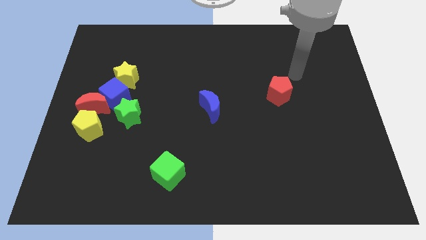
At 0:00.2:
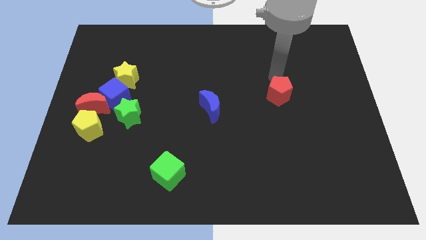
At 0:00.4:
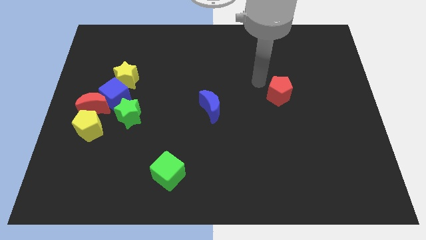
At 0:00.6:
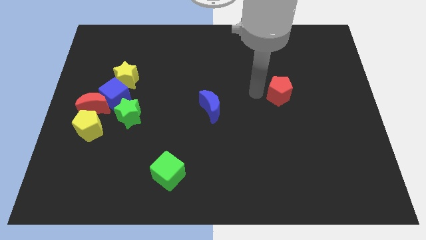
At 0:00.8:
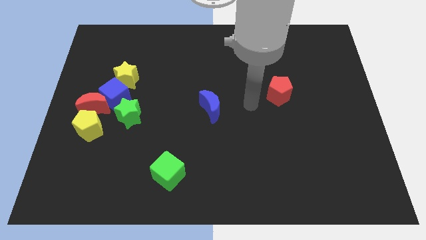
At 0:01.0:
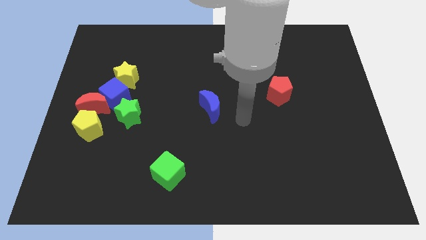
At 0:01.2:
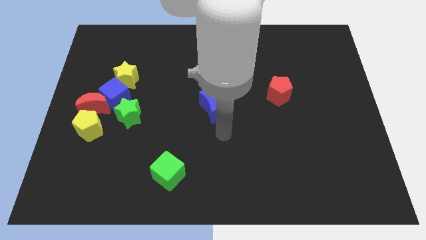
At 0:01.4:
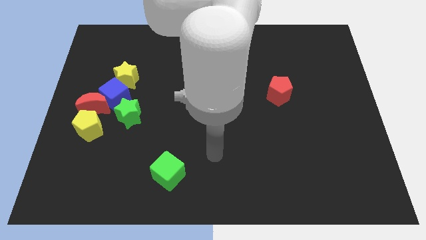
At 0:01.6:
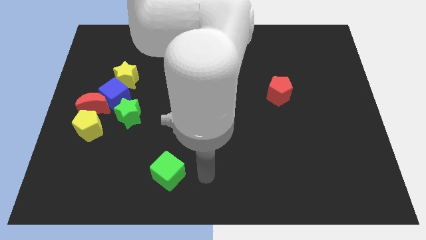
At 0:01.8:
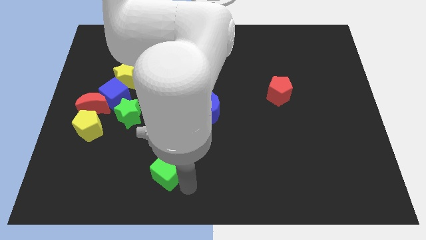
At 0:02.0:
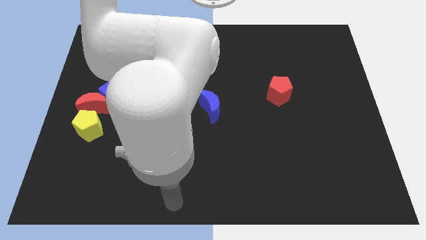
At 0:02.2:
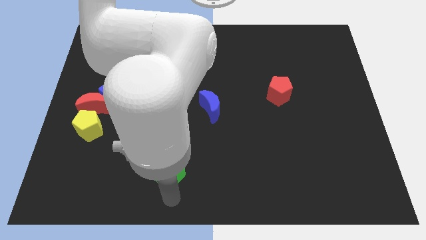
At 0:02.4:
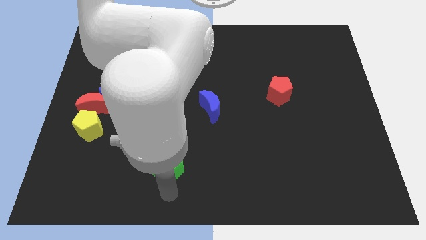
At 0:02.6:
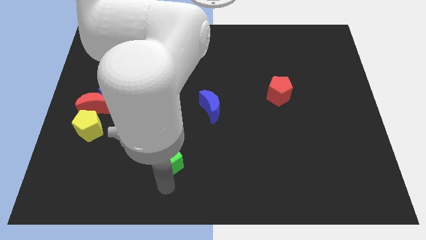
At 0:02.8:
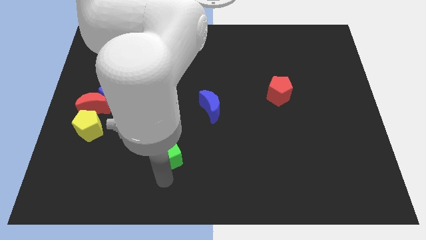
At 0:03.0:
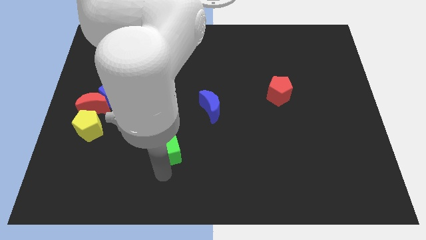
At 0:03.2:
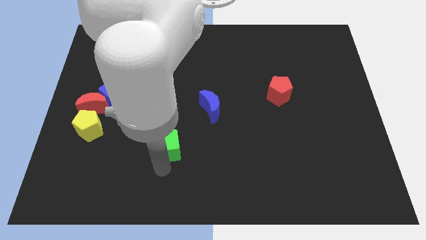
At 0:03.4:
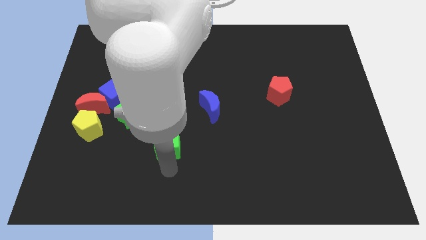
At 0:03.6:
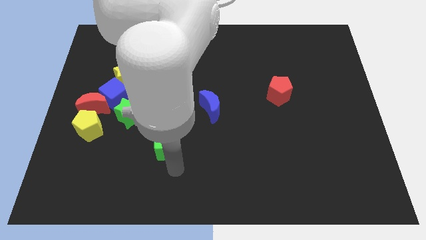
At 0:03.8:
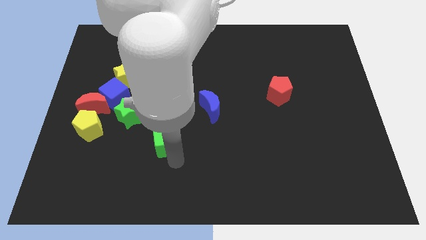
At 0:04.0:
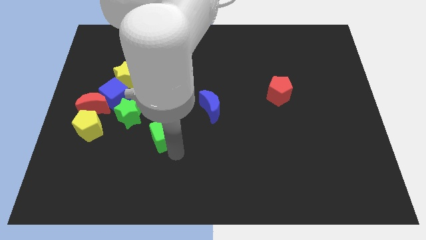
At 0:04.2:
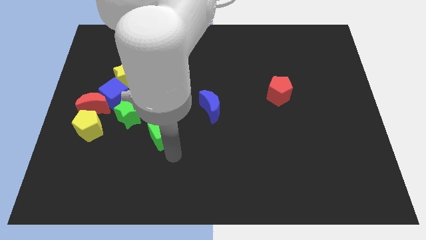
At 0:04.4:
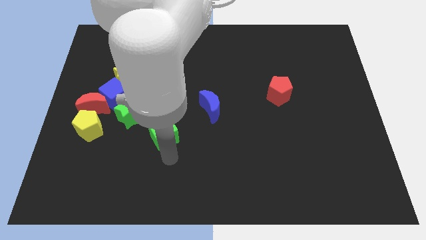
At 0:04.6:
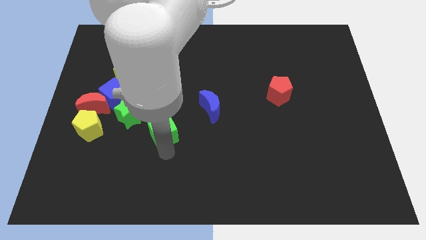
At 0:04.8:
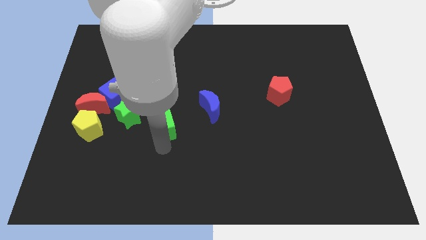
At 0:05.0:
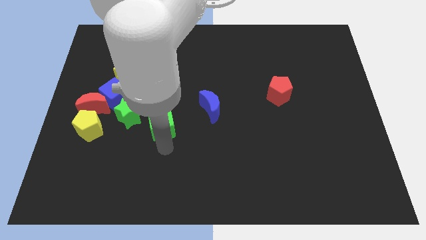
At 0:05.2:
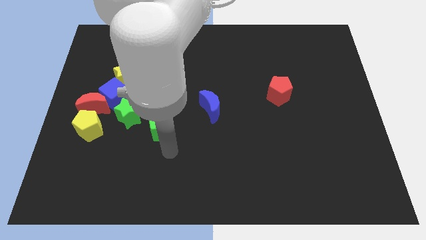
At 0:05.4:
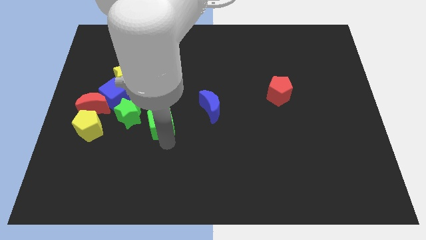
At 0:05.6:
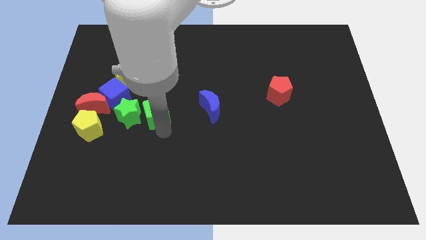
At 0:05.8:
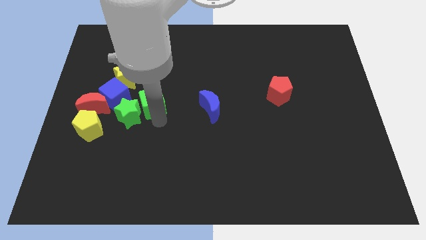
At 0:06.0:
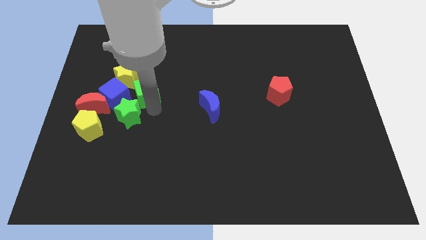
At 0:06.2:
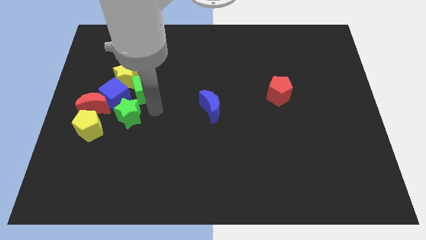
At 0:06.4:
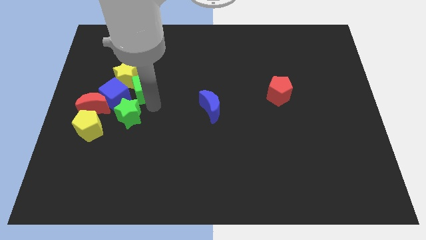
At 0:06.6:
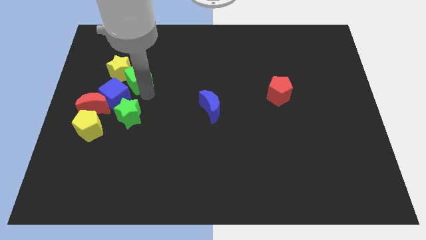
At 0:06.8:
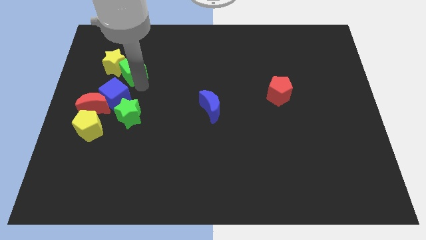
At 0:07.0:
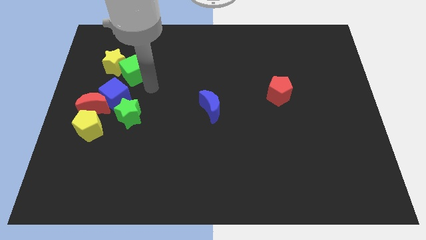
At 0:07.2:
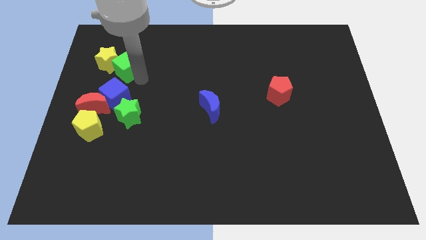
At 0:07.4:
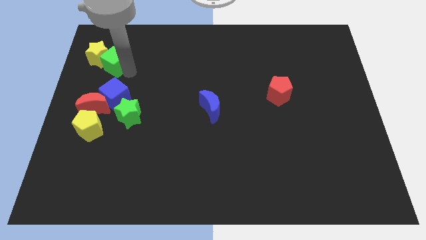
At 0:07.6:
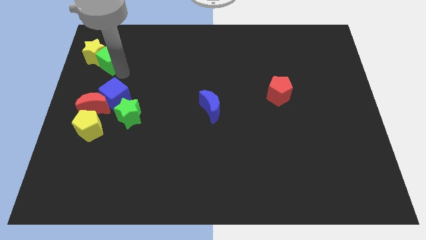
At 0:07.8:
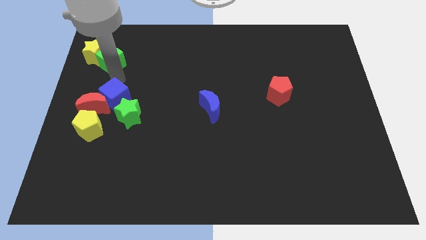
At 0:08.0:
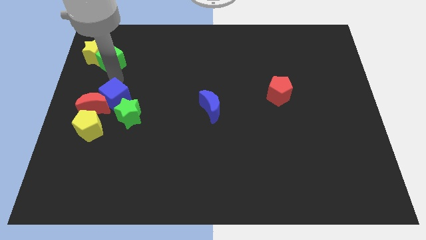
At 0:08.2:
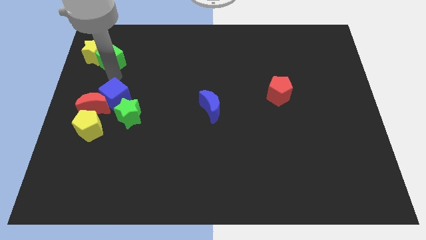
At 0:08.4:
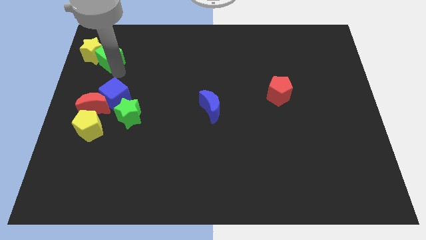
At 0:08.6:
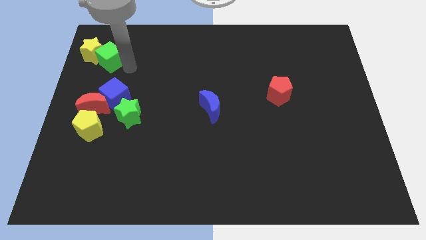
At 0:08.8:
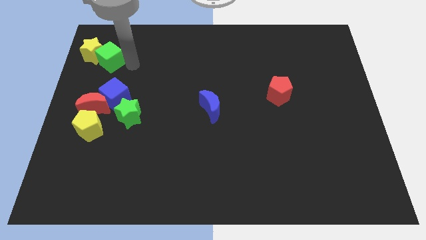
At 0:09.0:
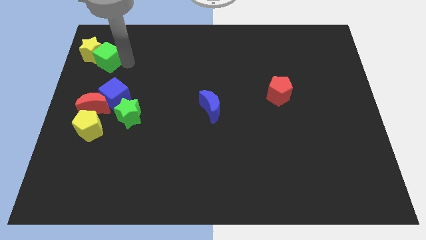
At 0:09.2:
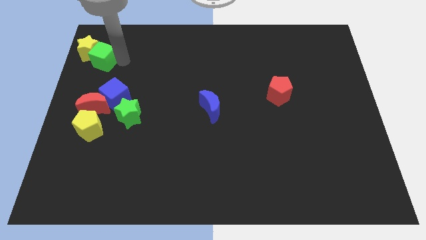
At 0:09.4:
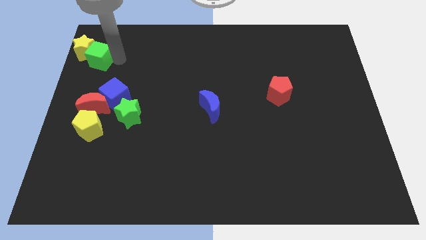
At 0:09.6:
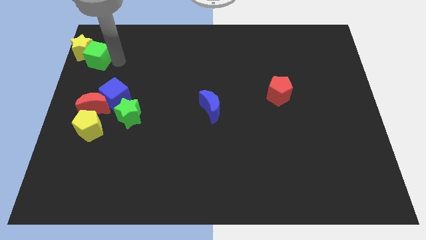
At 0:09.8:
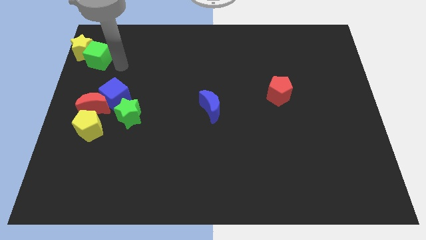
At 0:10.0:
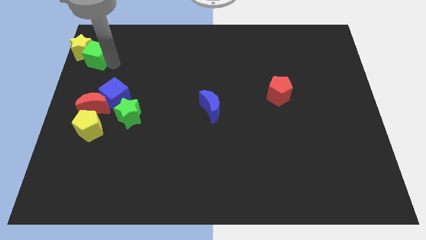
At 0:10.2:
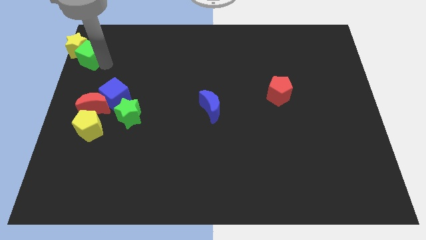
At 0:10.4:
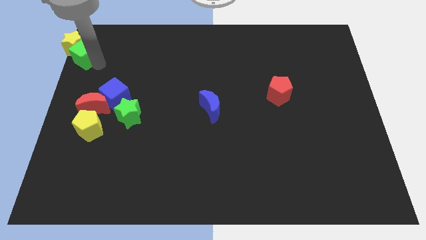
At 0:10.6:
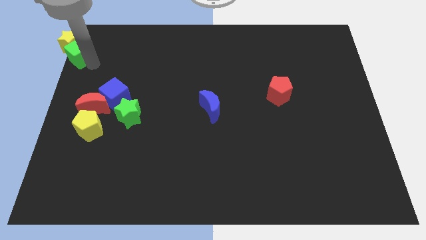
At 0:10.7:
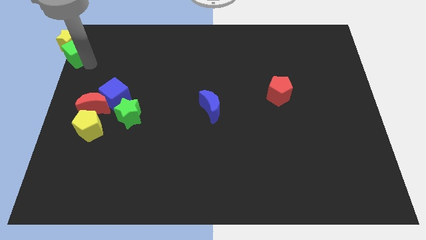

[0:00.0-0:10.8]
push the green cube to the top left

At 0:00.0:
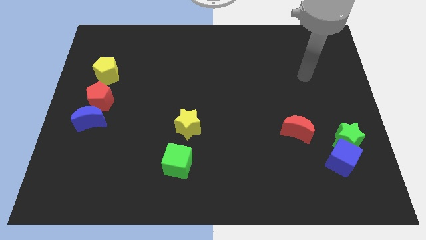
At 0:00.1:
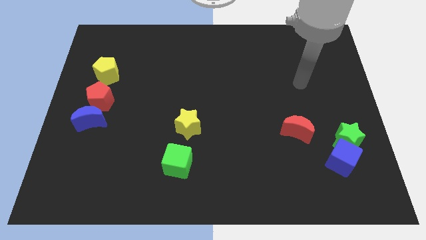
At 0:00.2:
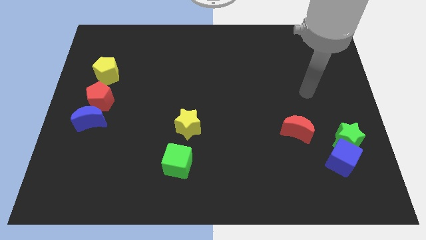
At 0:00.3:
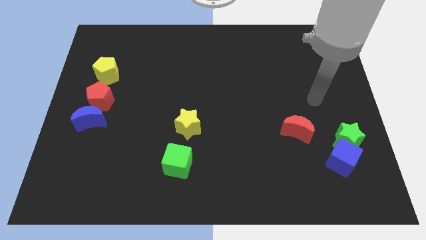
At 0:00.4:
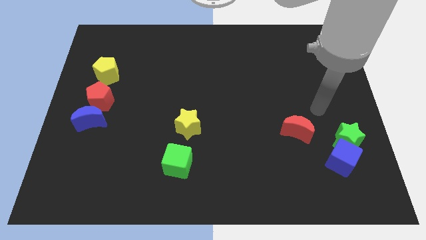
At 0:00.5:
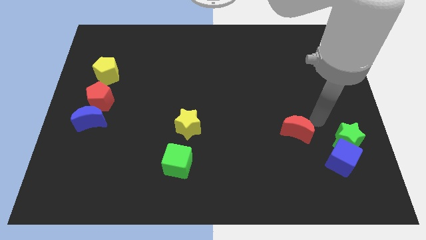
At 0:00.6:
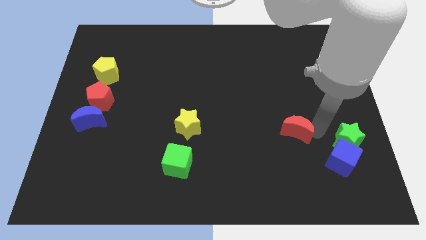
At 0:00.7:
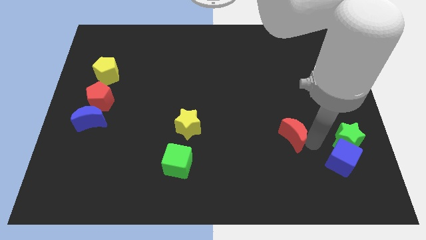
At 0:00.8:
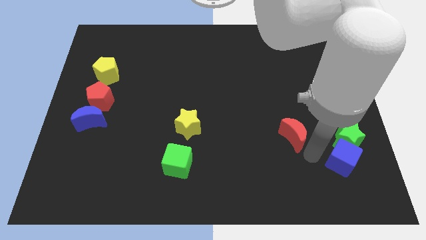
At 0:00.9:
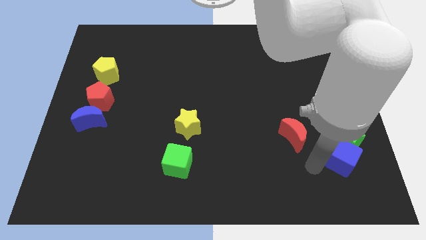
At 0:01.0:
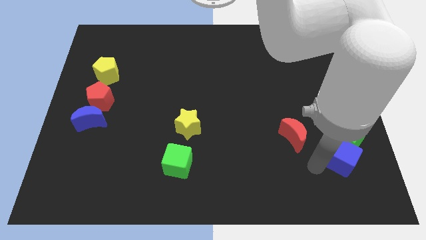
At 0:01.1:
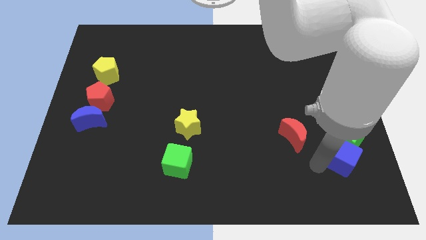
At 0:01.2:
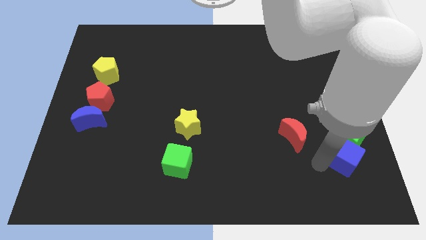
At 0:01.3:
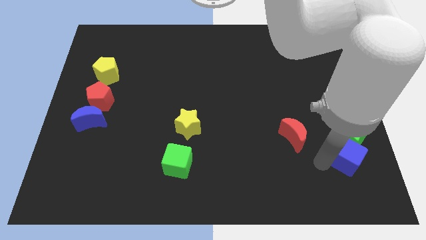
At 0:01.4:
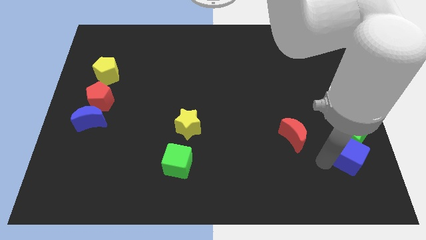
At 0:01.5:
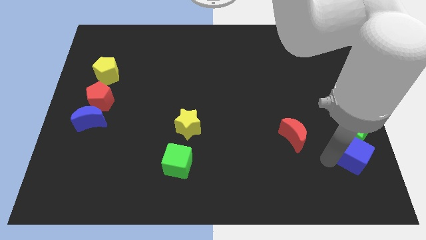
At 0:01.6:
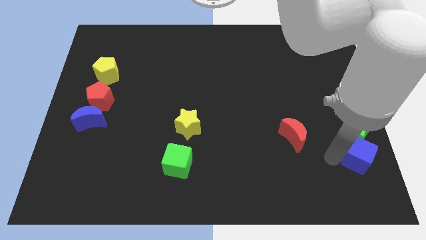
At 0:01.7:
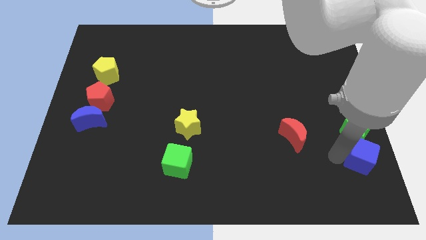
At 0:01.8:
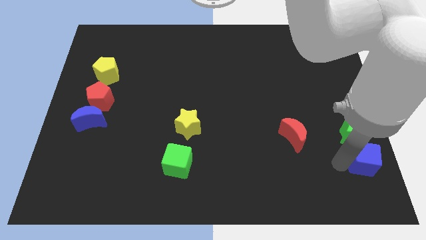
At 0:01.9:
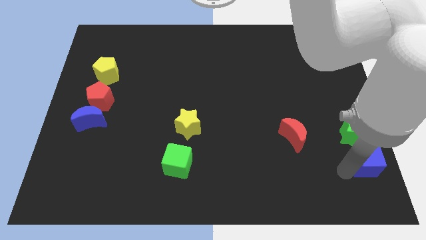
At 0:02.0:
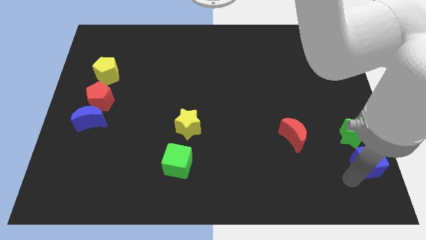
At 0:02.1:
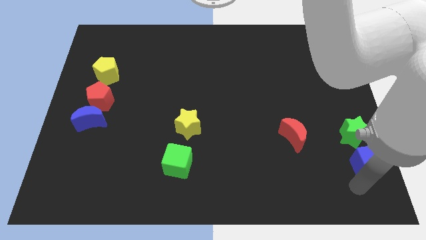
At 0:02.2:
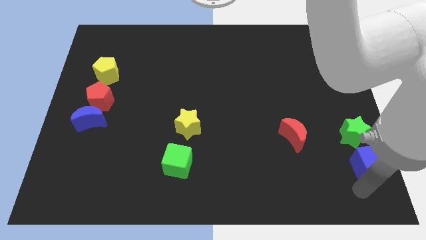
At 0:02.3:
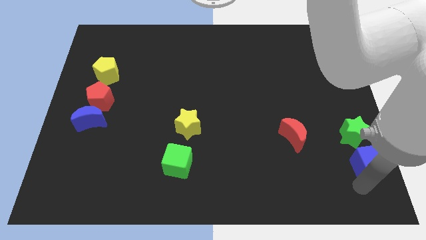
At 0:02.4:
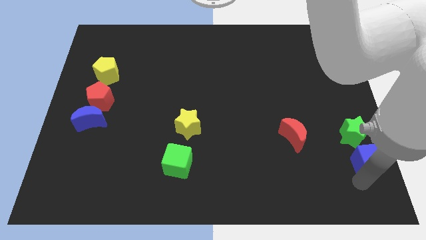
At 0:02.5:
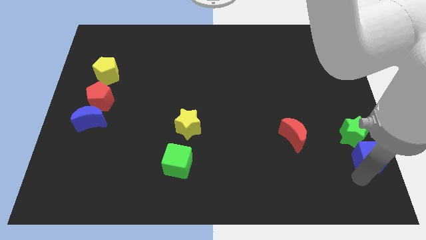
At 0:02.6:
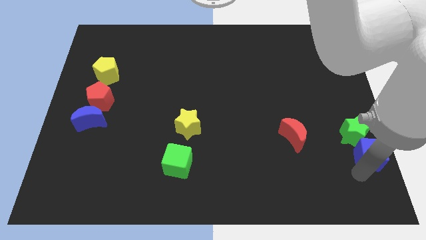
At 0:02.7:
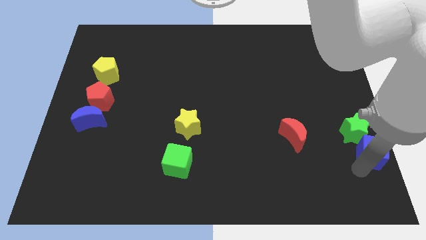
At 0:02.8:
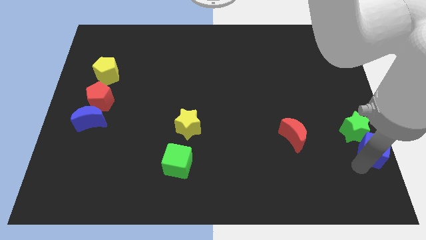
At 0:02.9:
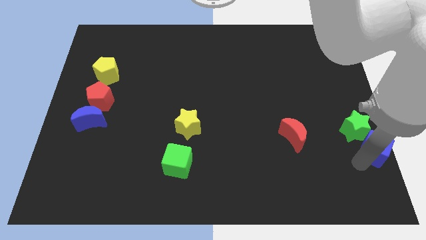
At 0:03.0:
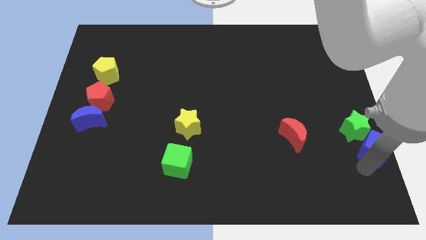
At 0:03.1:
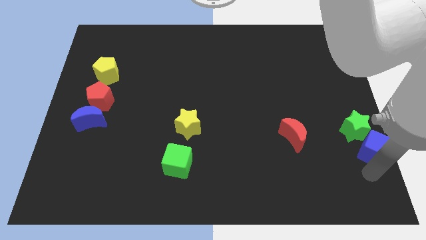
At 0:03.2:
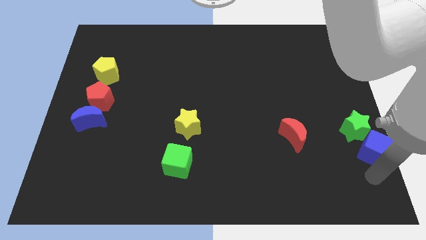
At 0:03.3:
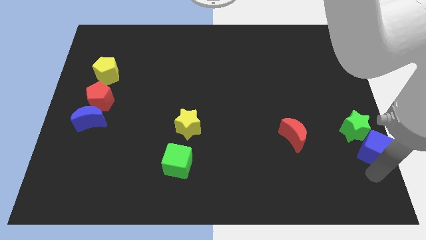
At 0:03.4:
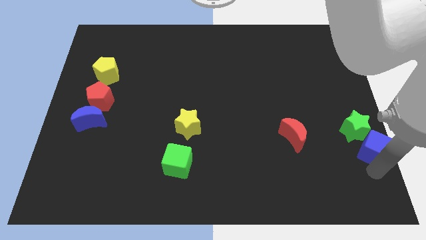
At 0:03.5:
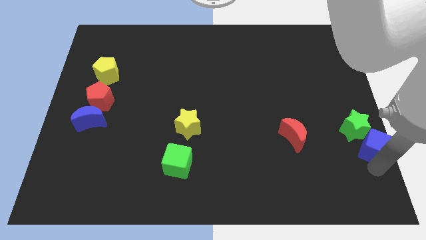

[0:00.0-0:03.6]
move the blue cube to the right side
